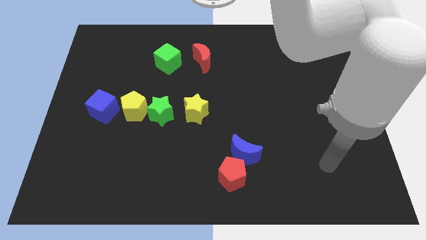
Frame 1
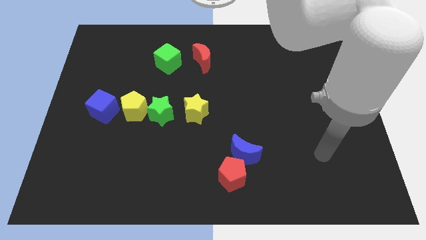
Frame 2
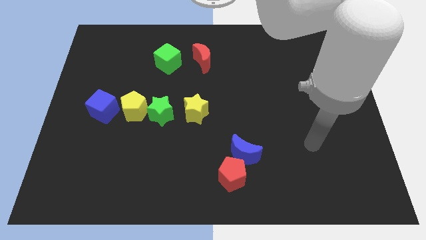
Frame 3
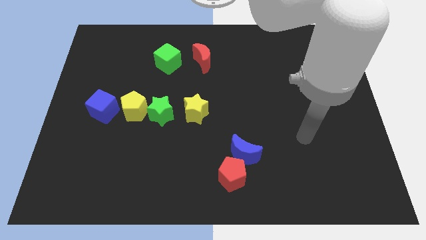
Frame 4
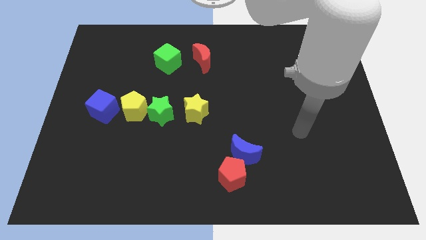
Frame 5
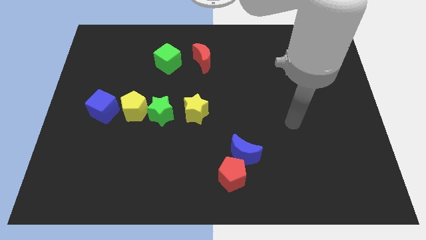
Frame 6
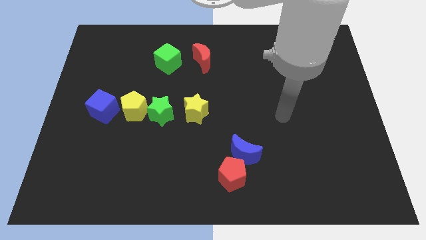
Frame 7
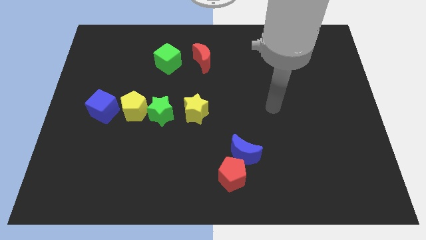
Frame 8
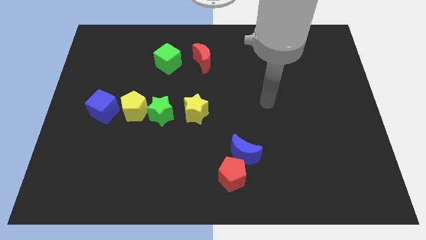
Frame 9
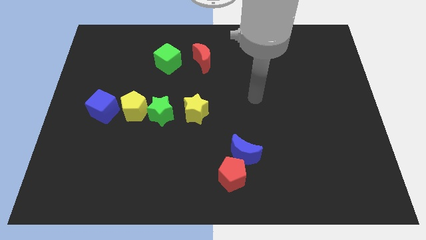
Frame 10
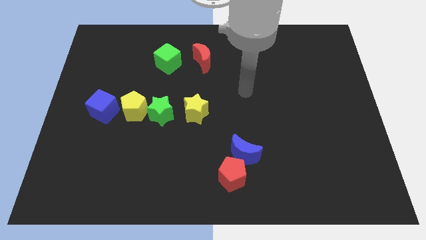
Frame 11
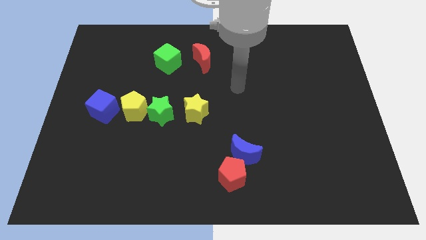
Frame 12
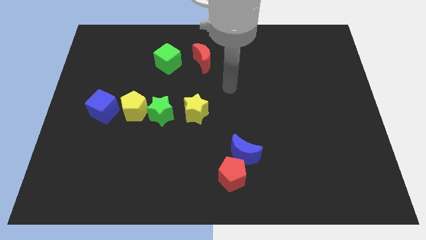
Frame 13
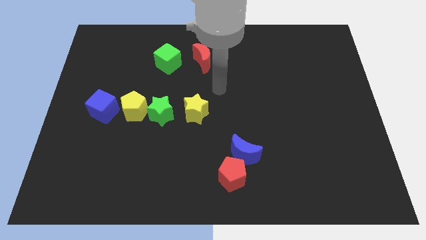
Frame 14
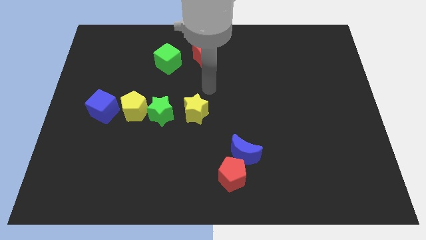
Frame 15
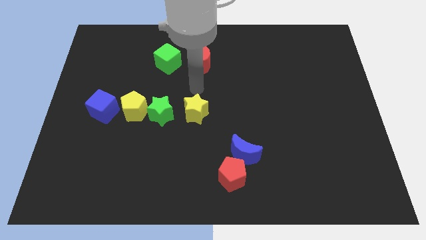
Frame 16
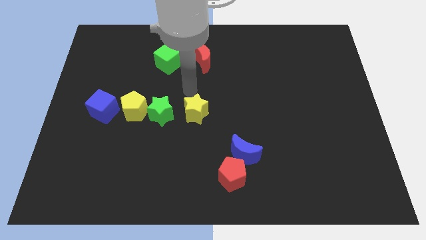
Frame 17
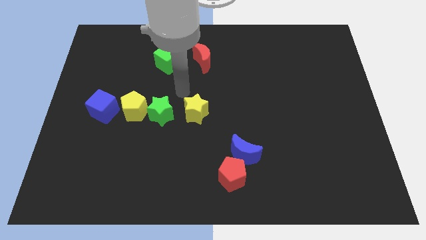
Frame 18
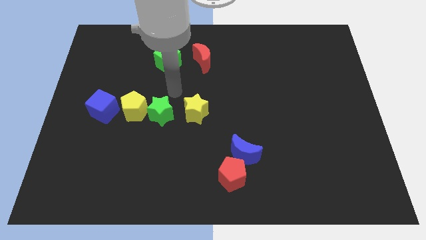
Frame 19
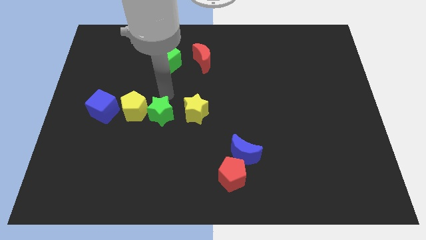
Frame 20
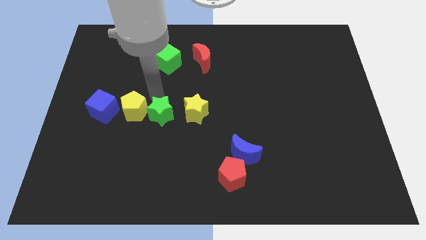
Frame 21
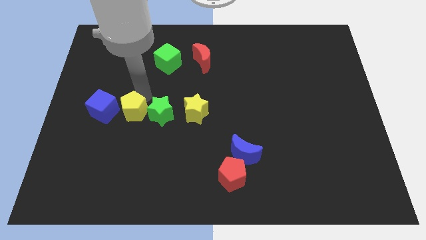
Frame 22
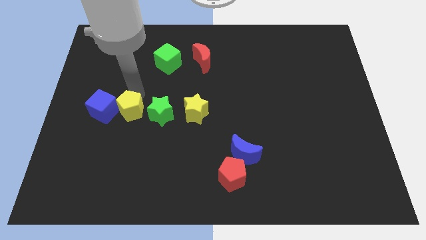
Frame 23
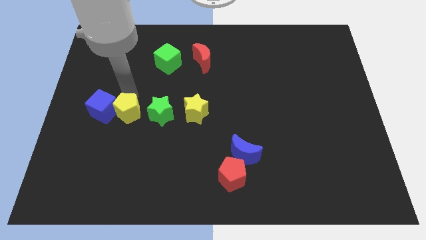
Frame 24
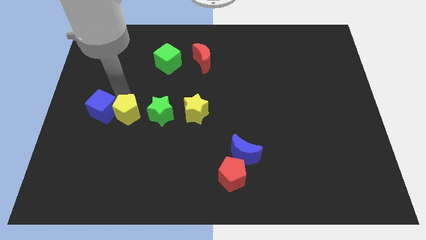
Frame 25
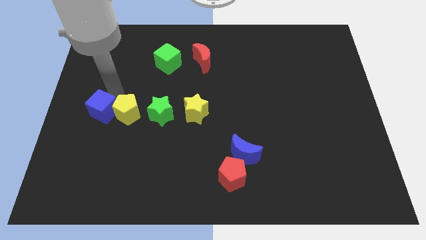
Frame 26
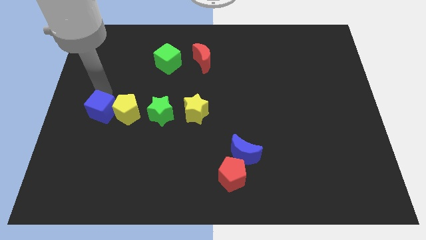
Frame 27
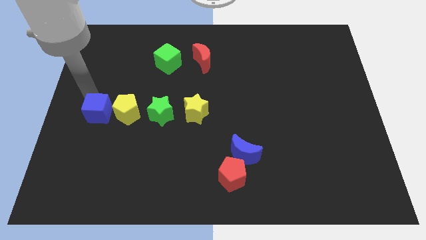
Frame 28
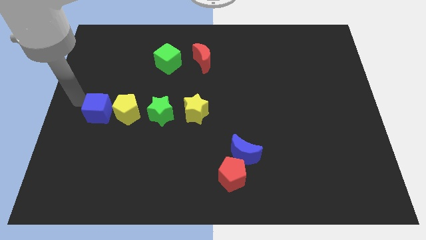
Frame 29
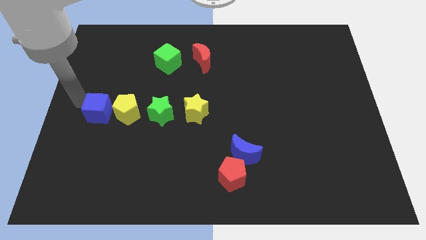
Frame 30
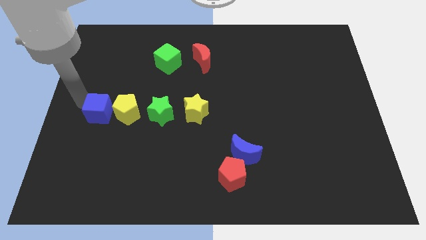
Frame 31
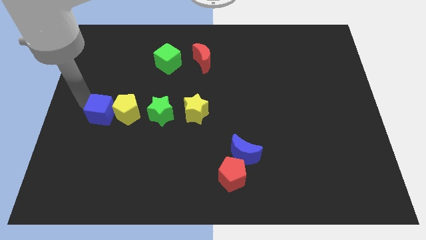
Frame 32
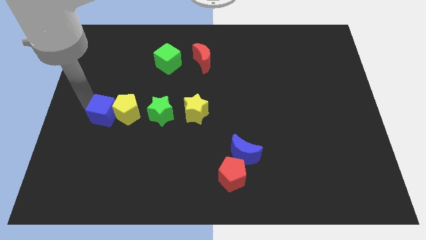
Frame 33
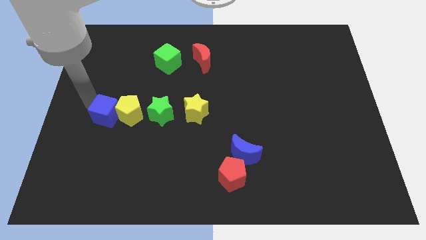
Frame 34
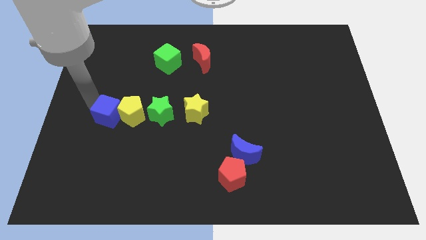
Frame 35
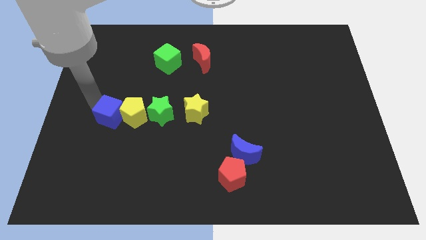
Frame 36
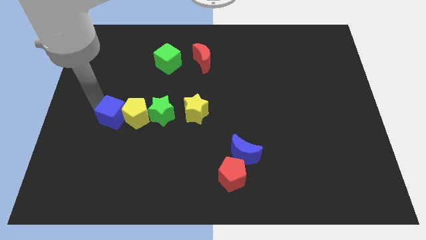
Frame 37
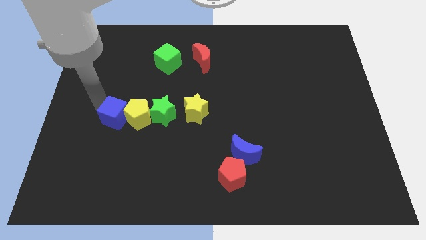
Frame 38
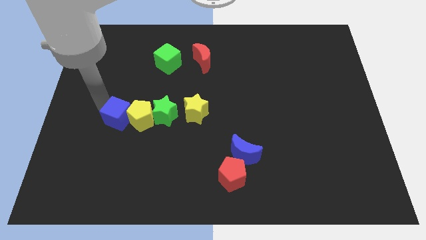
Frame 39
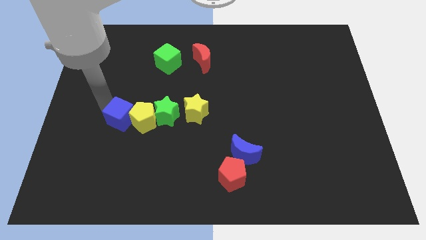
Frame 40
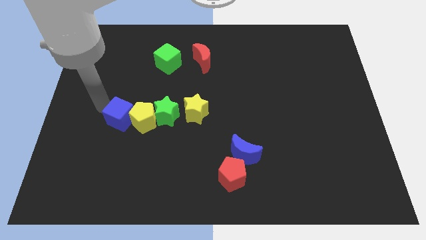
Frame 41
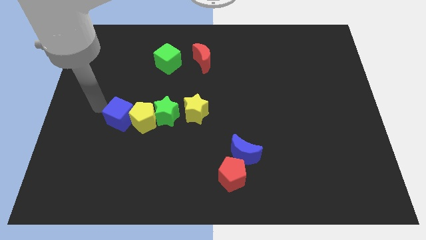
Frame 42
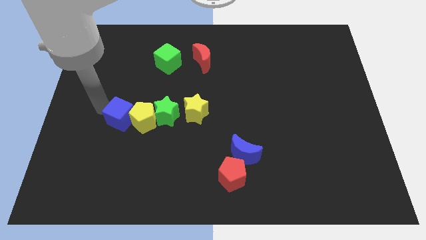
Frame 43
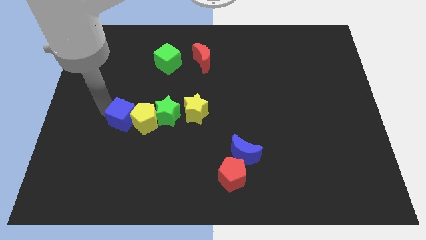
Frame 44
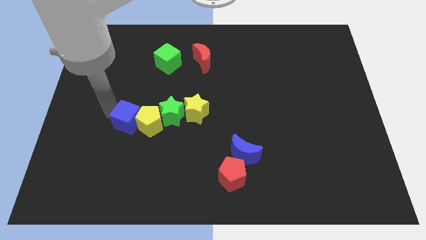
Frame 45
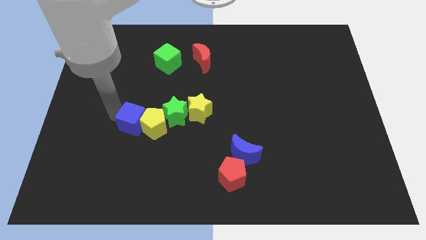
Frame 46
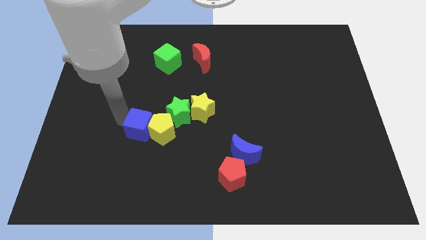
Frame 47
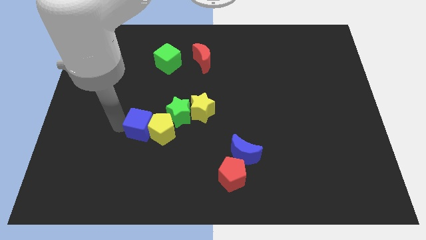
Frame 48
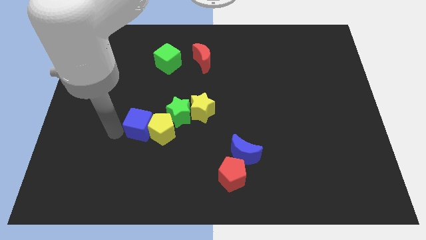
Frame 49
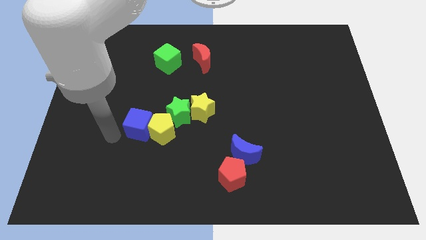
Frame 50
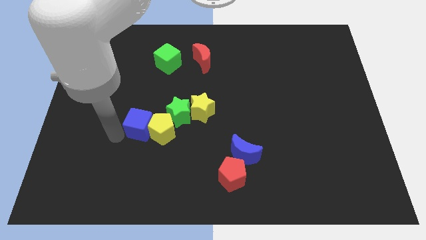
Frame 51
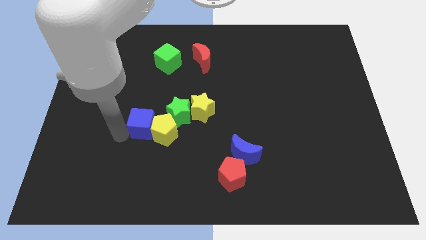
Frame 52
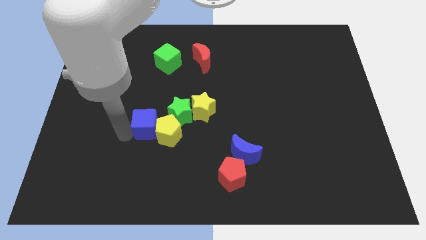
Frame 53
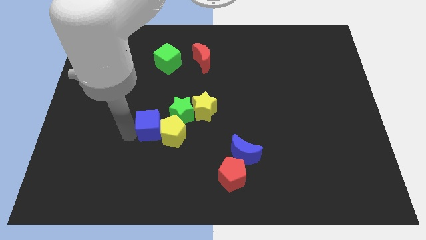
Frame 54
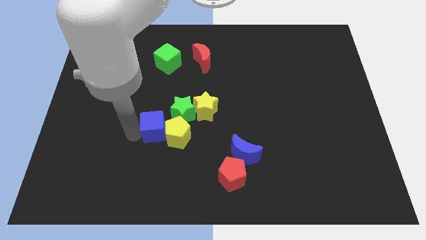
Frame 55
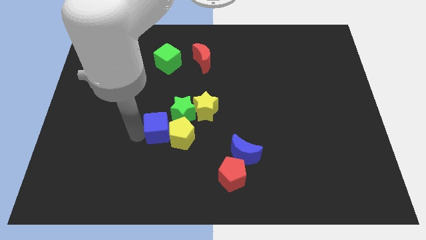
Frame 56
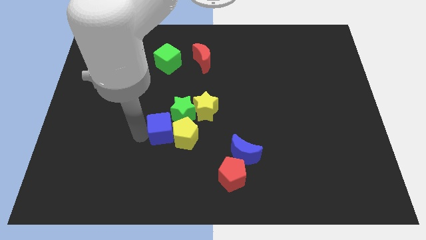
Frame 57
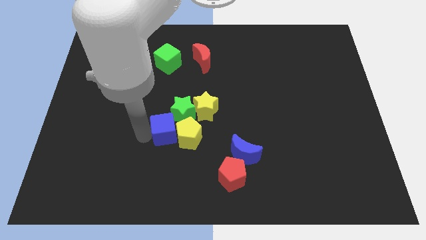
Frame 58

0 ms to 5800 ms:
slide the blue cube to the green star
